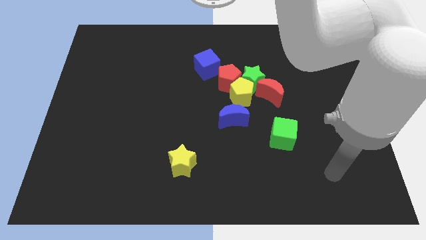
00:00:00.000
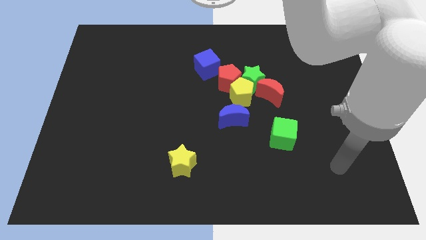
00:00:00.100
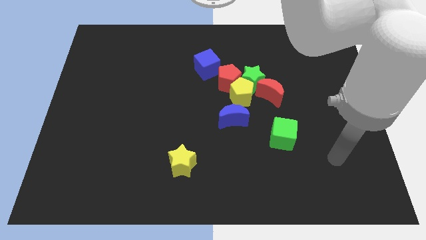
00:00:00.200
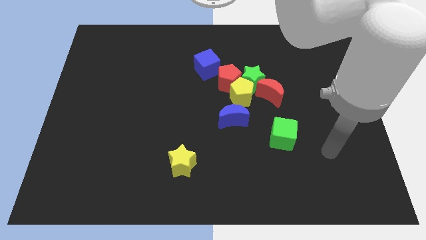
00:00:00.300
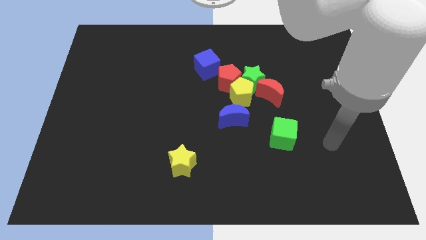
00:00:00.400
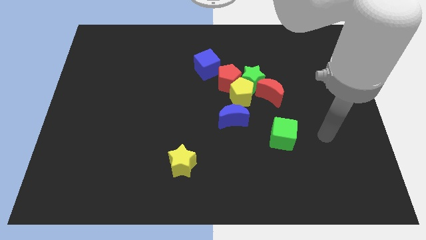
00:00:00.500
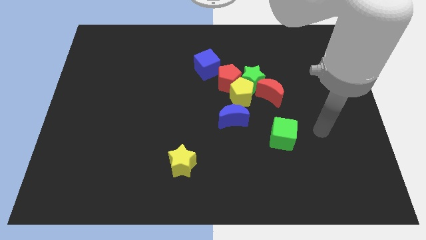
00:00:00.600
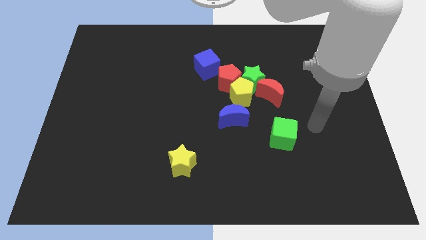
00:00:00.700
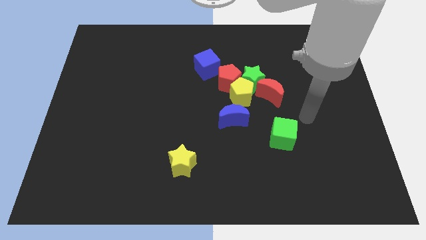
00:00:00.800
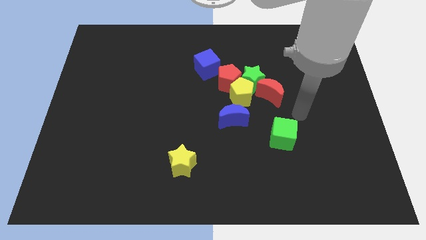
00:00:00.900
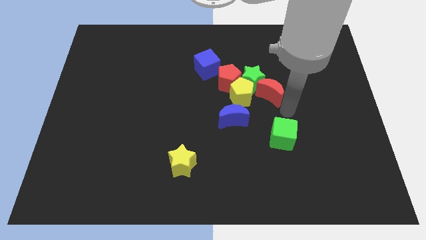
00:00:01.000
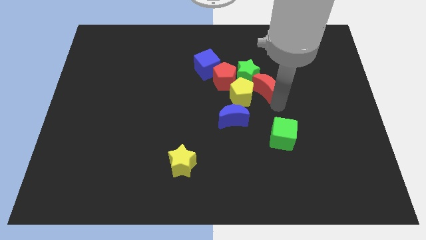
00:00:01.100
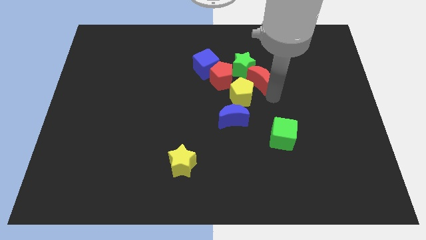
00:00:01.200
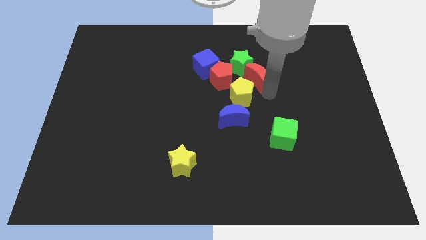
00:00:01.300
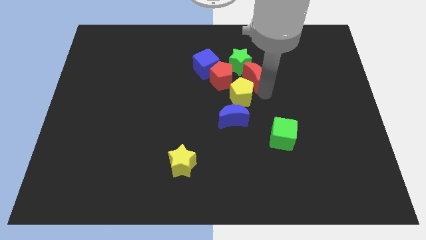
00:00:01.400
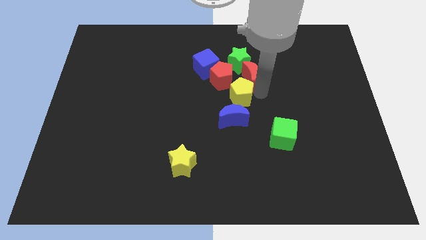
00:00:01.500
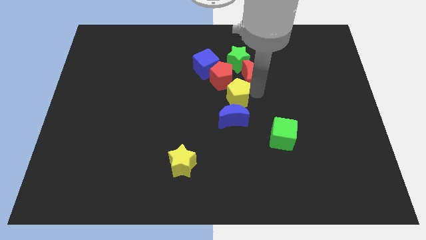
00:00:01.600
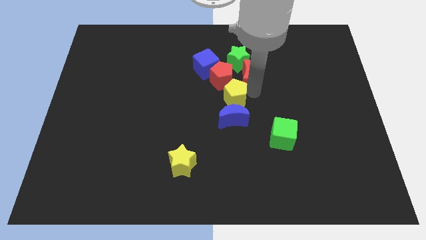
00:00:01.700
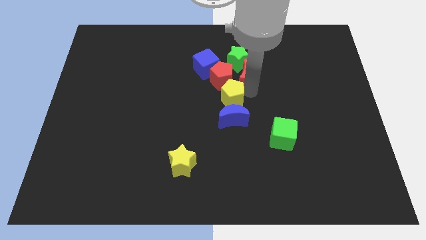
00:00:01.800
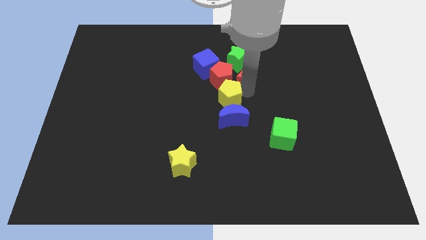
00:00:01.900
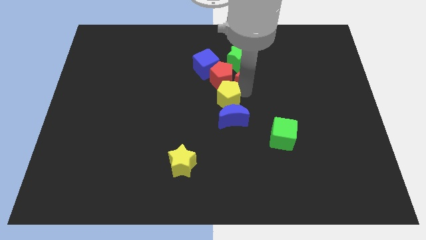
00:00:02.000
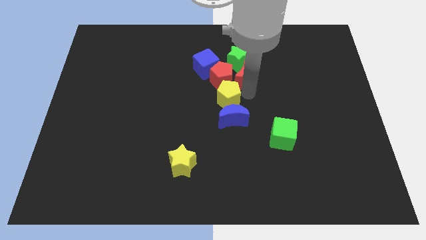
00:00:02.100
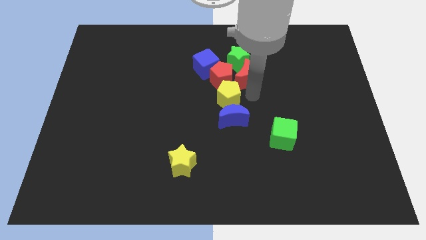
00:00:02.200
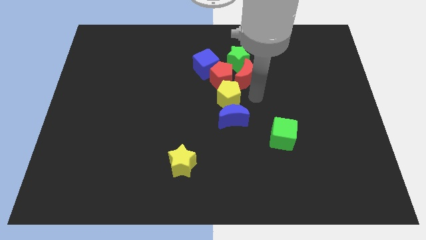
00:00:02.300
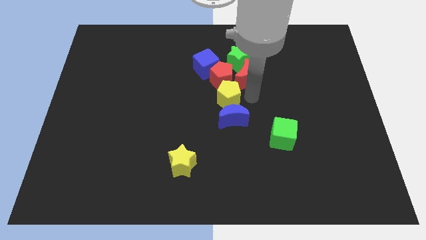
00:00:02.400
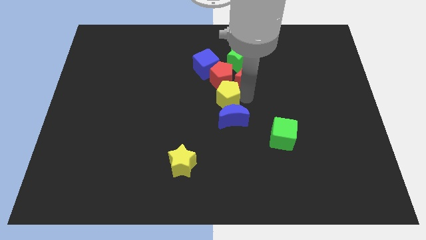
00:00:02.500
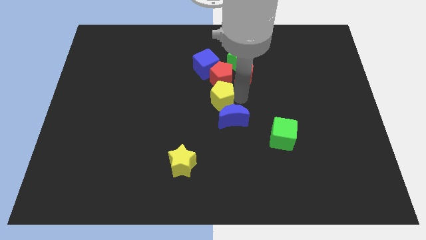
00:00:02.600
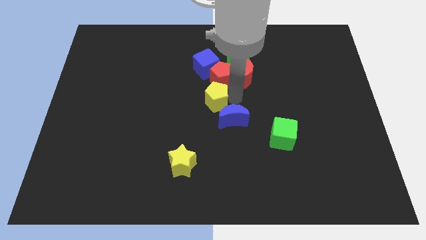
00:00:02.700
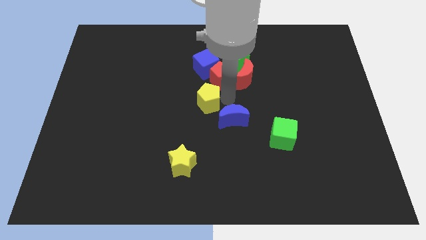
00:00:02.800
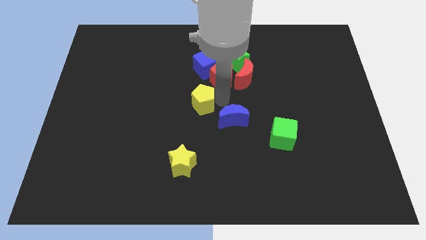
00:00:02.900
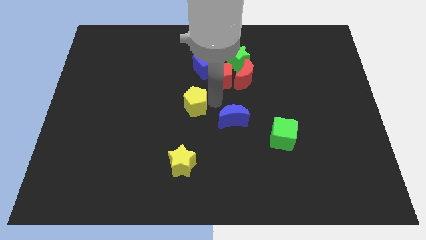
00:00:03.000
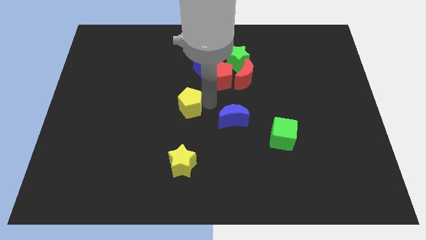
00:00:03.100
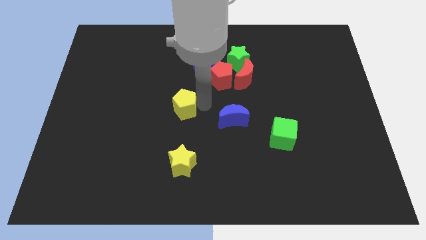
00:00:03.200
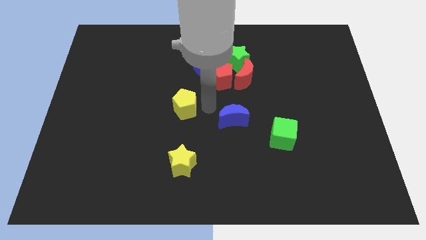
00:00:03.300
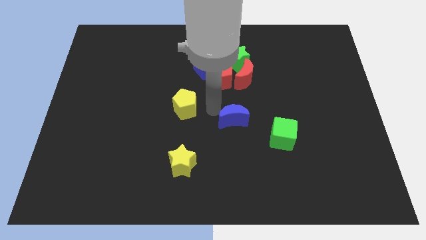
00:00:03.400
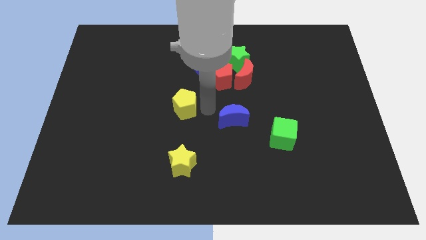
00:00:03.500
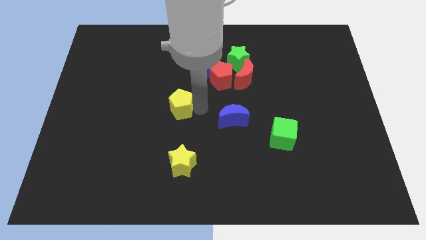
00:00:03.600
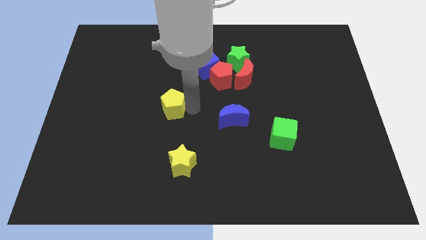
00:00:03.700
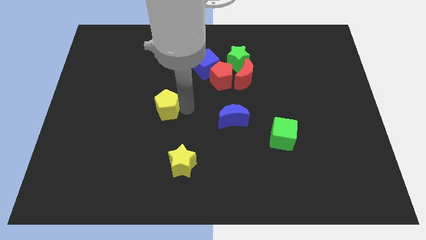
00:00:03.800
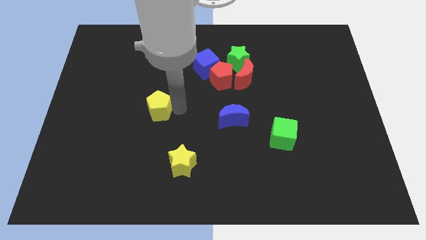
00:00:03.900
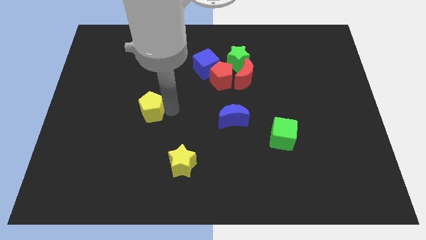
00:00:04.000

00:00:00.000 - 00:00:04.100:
push the yellow pentagon to the left

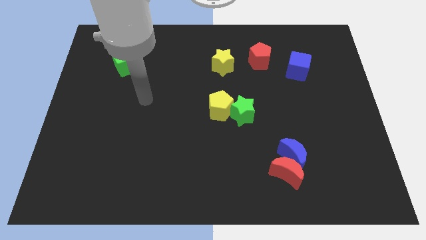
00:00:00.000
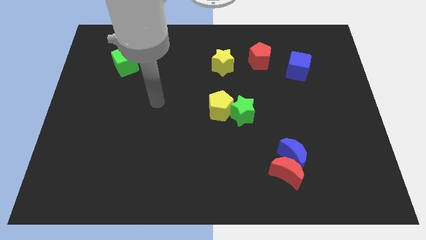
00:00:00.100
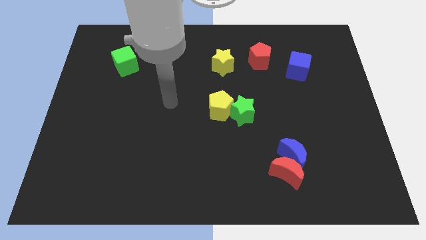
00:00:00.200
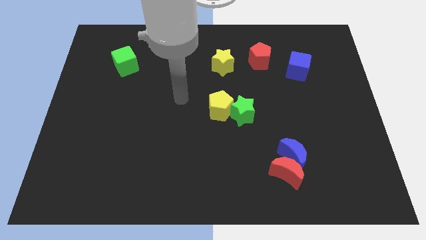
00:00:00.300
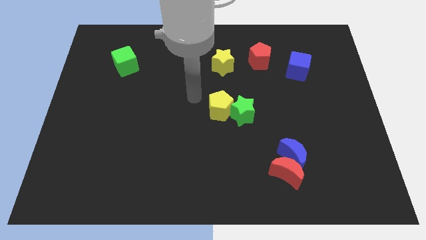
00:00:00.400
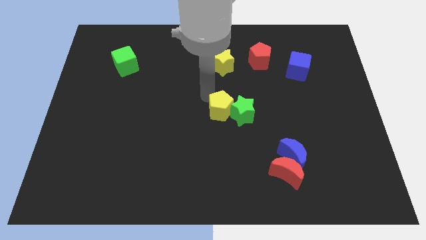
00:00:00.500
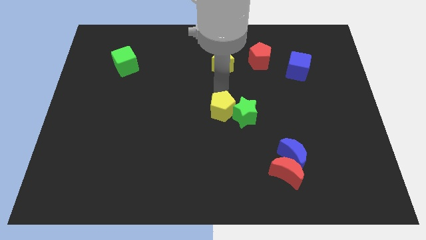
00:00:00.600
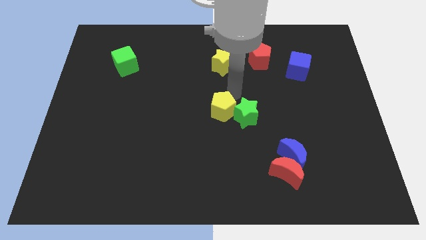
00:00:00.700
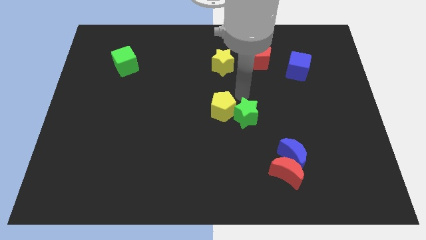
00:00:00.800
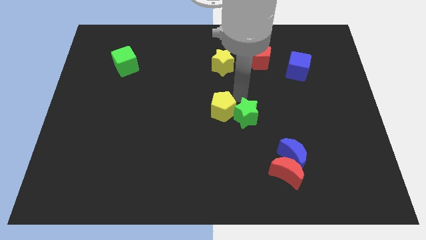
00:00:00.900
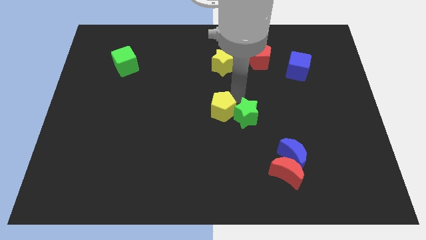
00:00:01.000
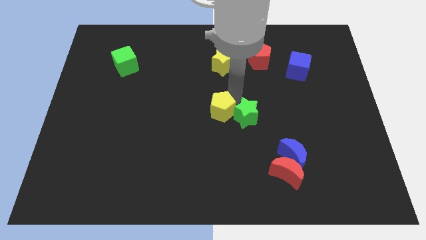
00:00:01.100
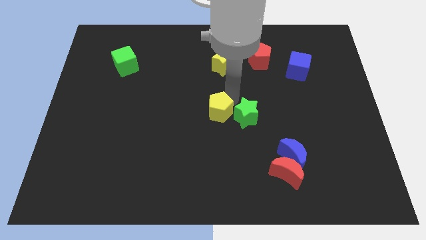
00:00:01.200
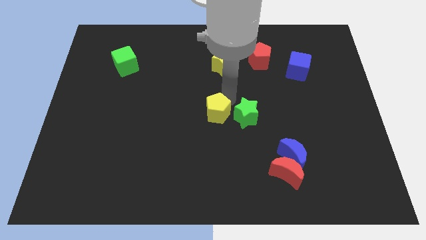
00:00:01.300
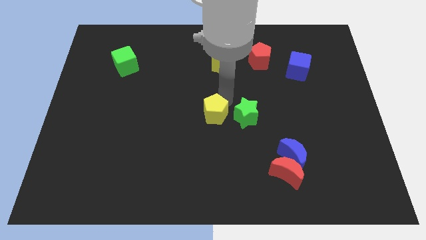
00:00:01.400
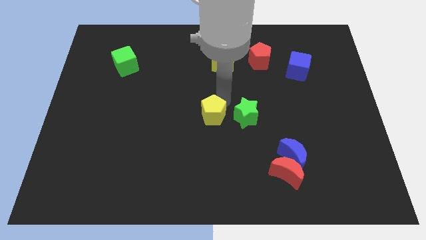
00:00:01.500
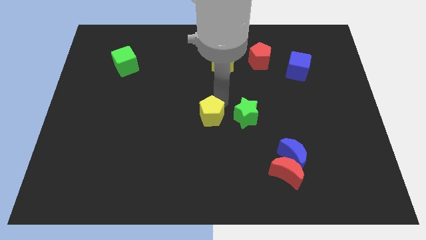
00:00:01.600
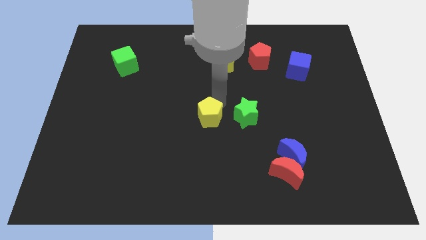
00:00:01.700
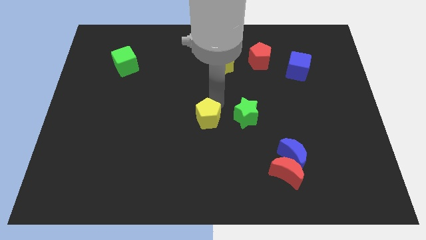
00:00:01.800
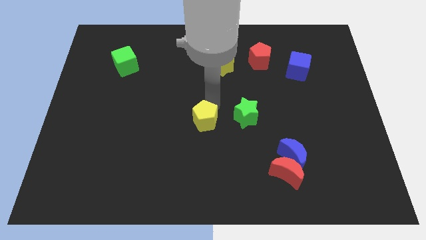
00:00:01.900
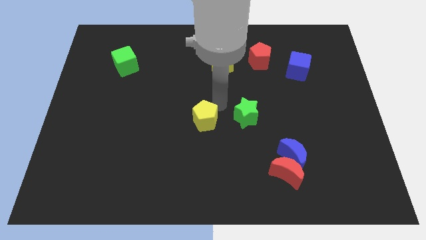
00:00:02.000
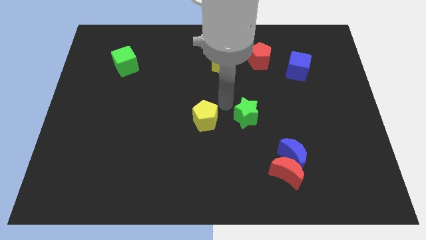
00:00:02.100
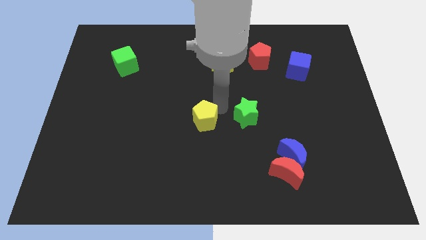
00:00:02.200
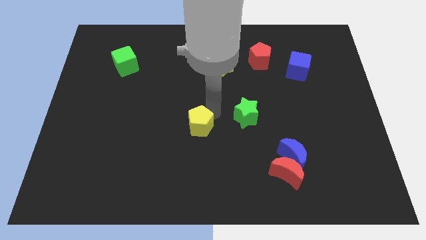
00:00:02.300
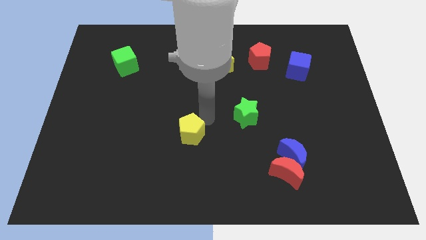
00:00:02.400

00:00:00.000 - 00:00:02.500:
push the yellow pentagon a little down and left

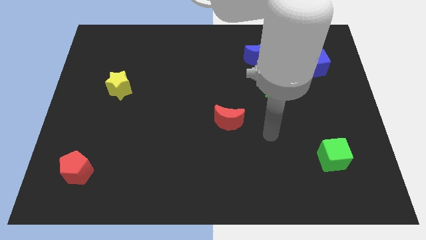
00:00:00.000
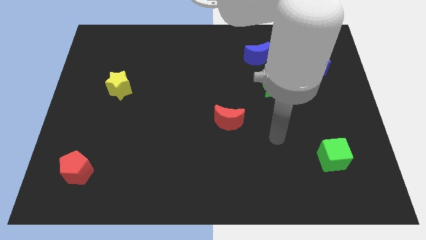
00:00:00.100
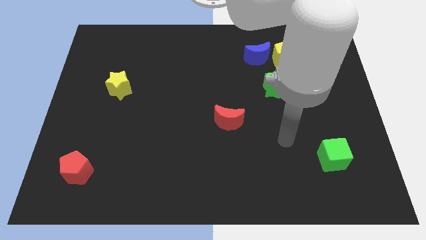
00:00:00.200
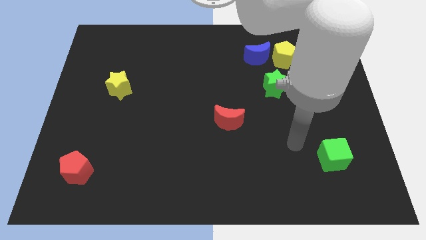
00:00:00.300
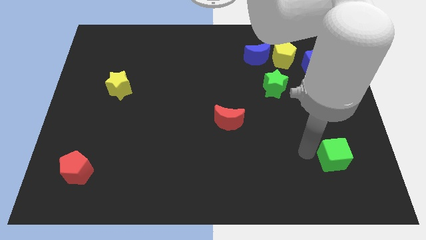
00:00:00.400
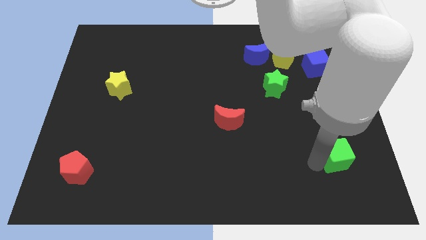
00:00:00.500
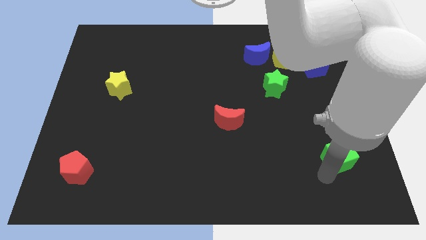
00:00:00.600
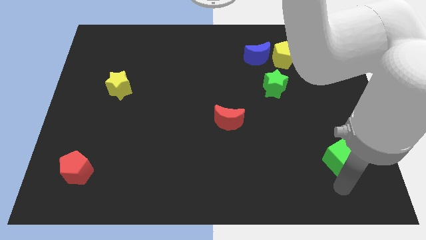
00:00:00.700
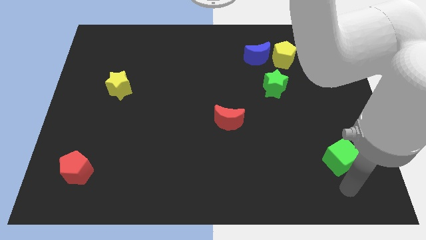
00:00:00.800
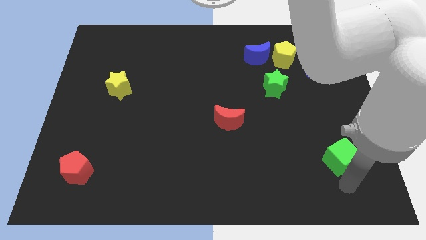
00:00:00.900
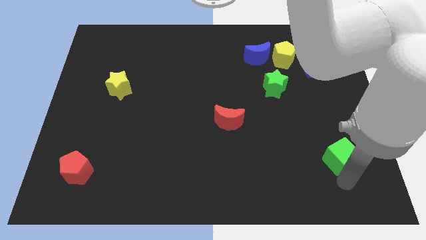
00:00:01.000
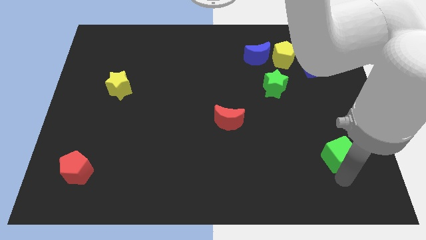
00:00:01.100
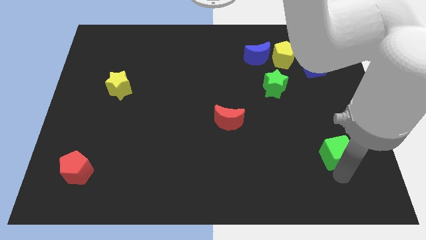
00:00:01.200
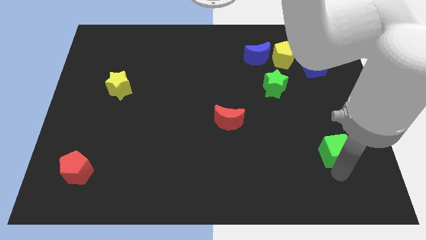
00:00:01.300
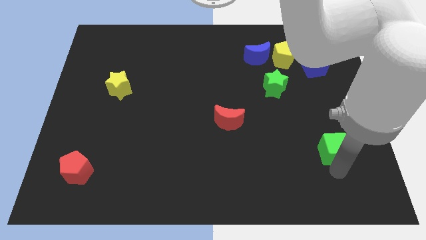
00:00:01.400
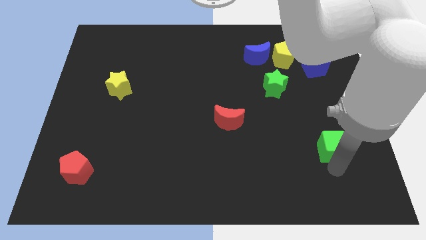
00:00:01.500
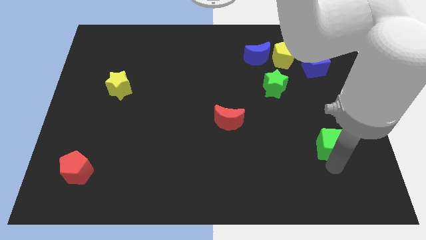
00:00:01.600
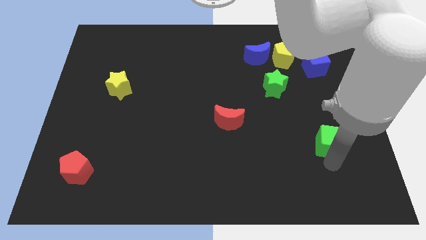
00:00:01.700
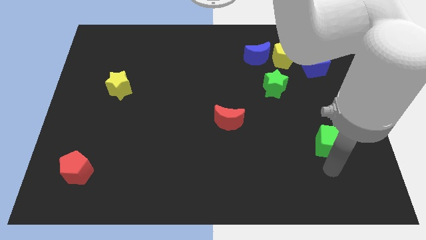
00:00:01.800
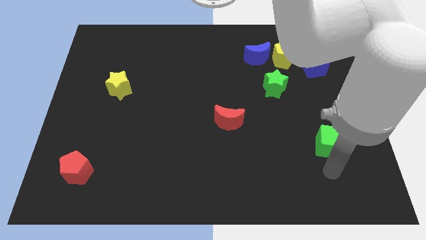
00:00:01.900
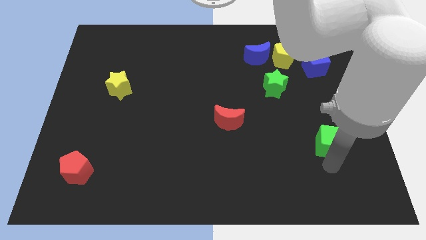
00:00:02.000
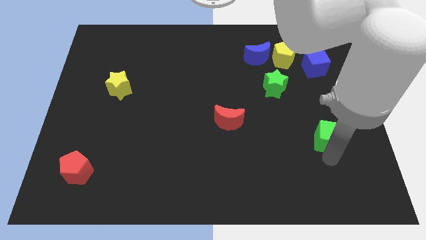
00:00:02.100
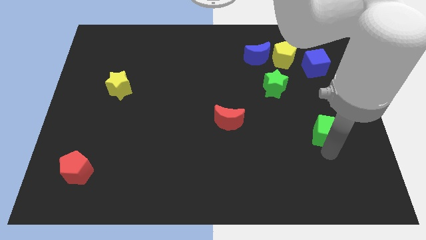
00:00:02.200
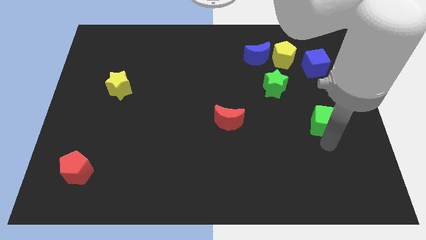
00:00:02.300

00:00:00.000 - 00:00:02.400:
slightly push the green cube up
